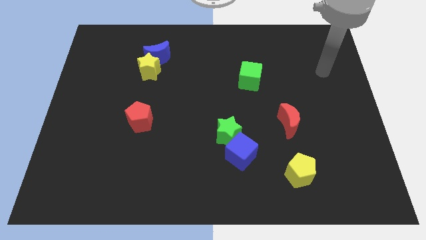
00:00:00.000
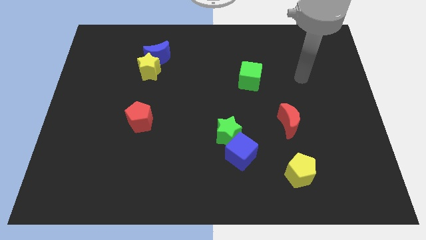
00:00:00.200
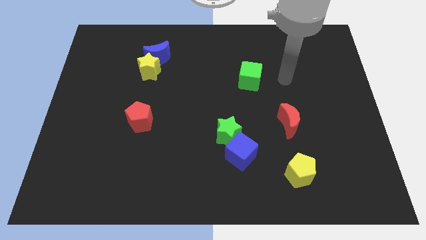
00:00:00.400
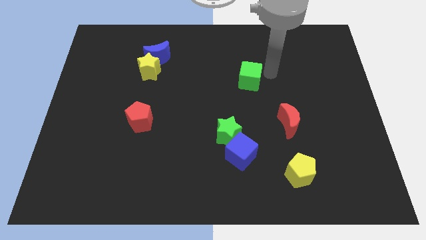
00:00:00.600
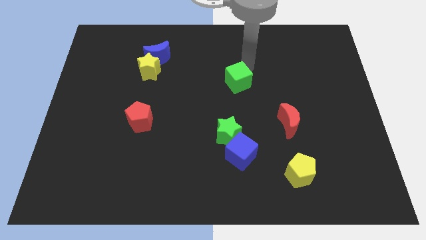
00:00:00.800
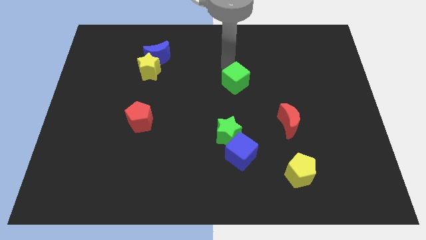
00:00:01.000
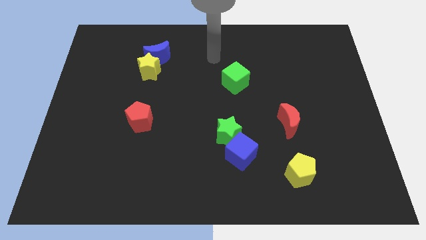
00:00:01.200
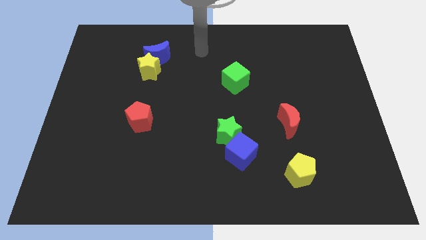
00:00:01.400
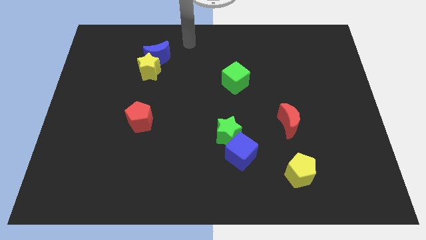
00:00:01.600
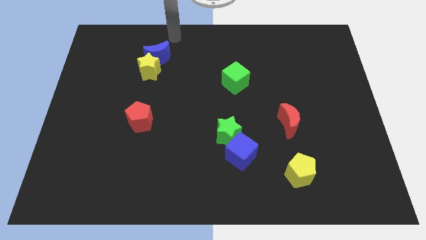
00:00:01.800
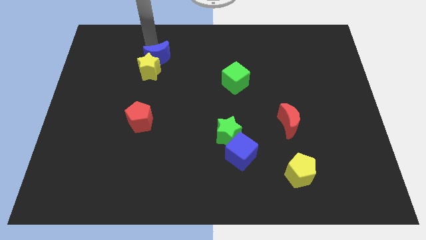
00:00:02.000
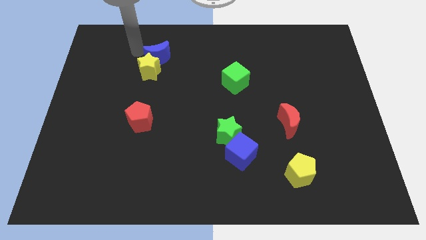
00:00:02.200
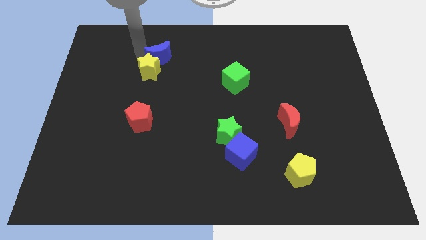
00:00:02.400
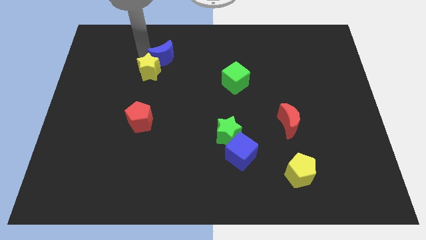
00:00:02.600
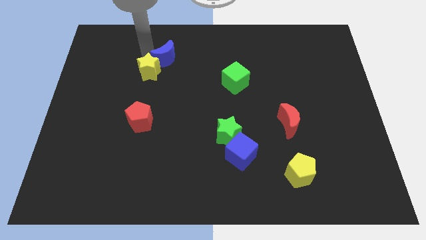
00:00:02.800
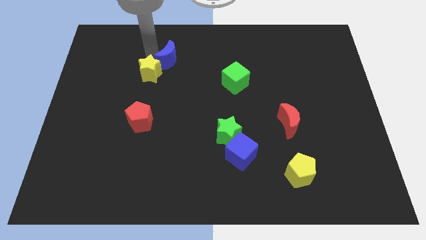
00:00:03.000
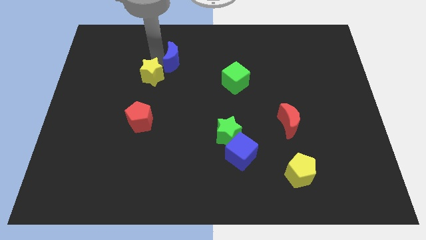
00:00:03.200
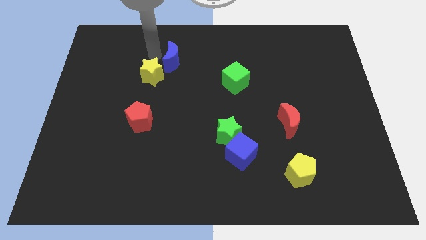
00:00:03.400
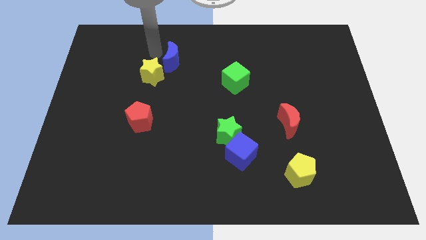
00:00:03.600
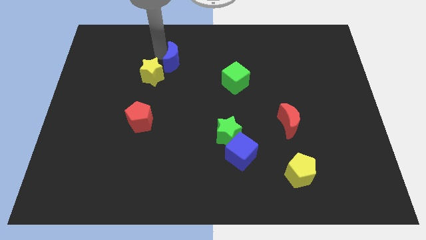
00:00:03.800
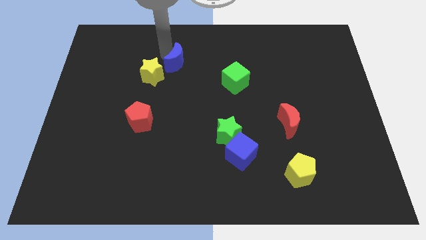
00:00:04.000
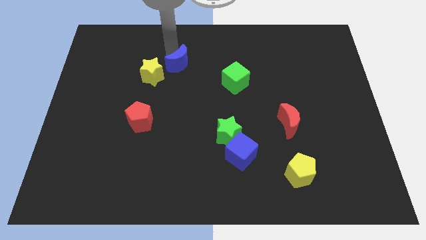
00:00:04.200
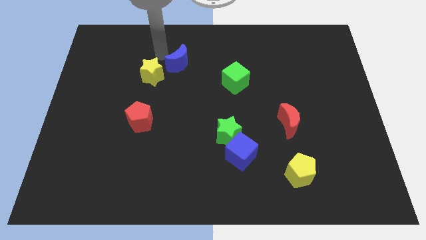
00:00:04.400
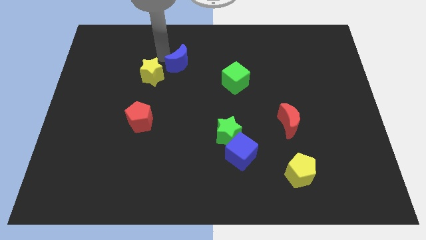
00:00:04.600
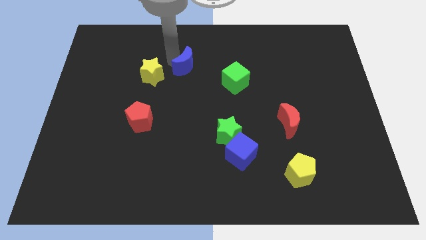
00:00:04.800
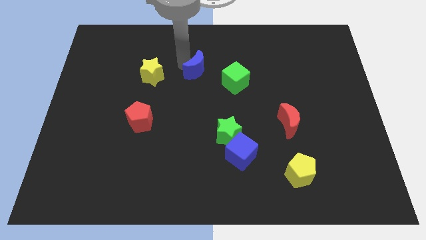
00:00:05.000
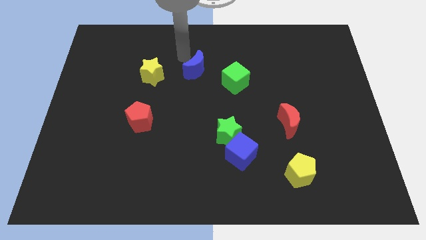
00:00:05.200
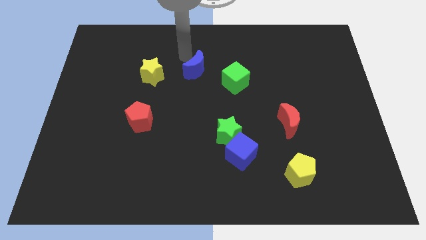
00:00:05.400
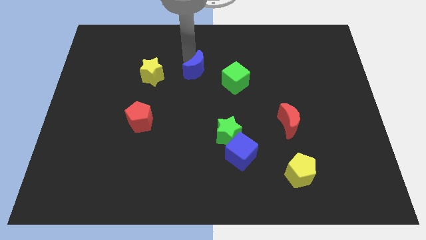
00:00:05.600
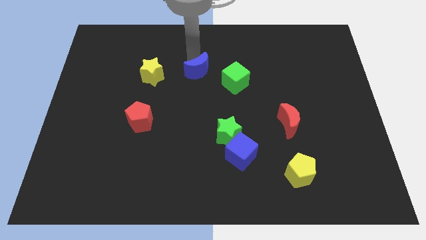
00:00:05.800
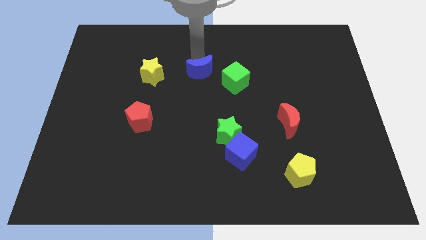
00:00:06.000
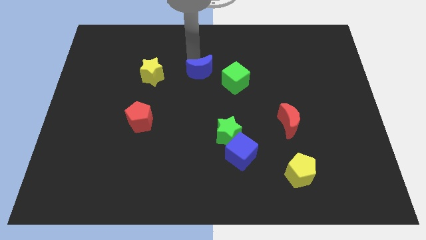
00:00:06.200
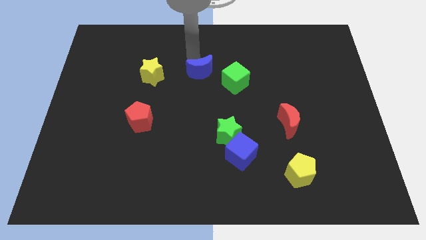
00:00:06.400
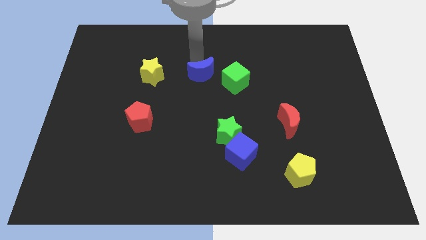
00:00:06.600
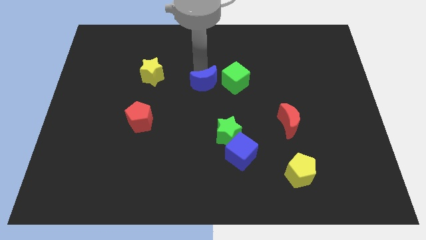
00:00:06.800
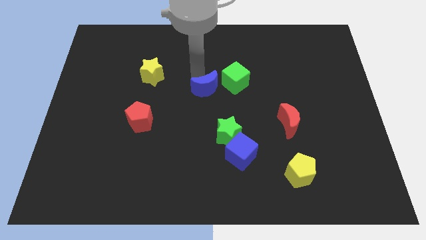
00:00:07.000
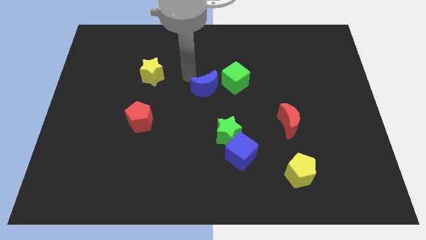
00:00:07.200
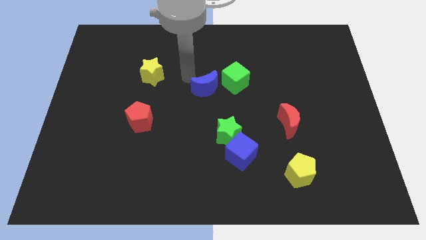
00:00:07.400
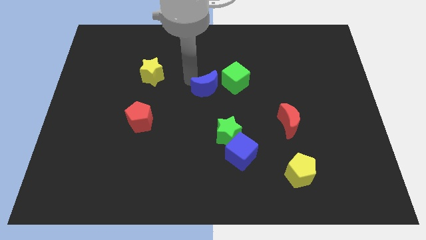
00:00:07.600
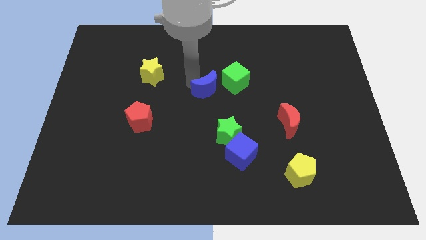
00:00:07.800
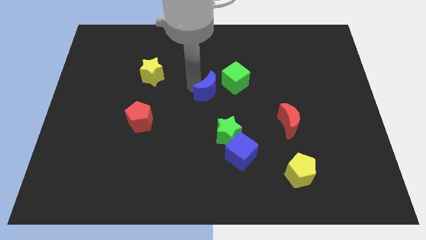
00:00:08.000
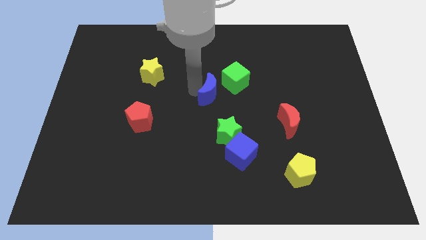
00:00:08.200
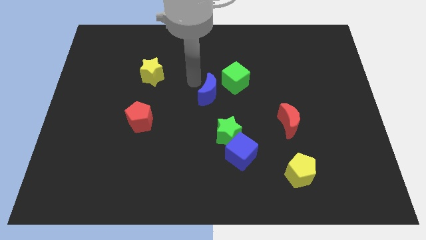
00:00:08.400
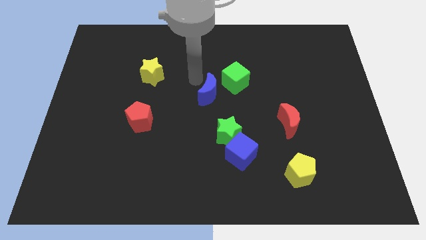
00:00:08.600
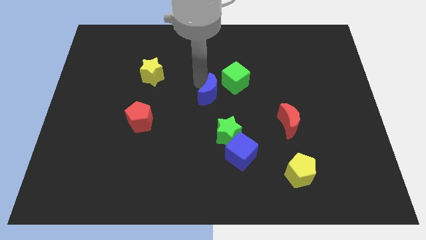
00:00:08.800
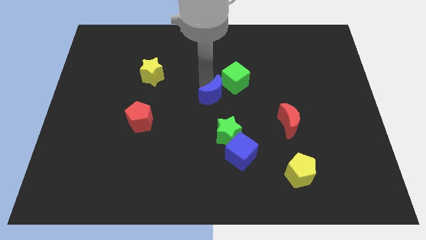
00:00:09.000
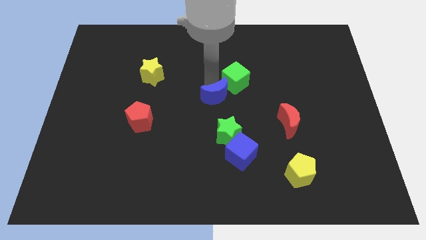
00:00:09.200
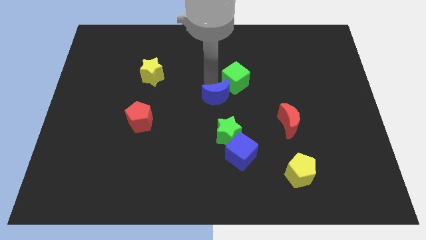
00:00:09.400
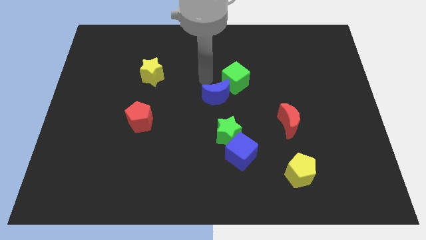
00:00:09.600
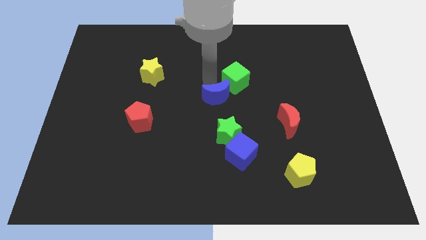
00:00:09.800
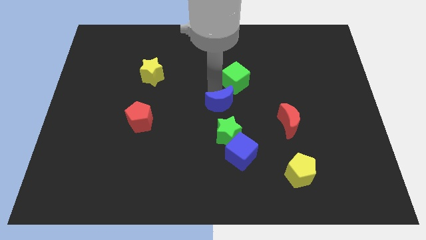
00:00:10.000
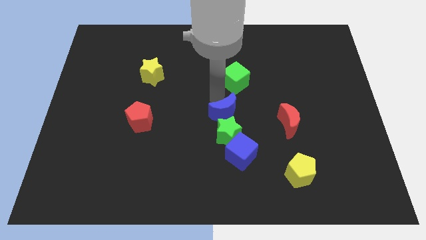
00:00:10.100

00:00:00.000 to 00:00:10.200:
put the blue moon to the left of the red moon

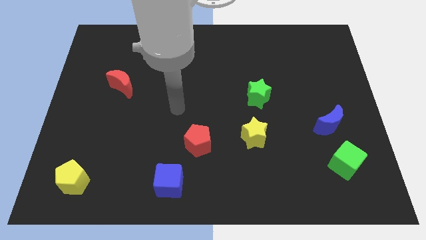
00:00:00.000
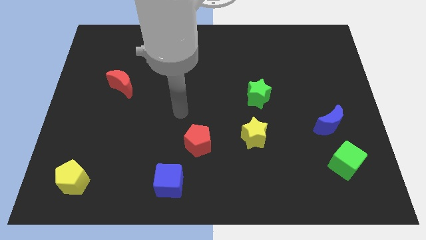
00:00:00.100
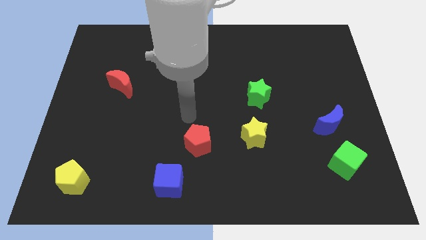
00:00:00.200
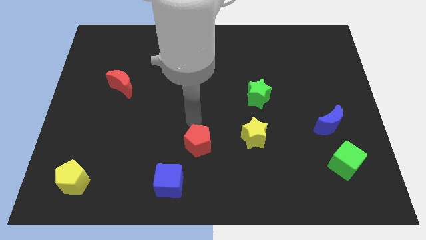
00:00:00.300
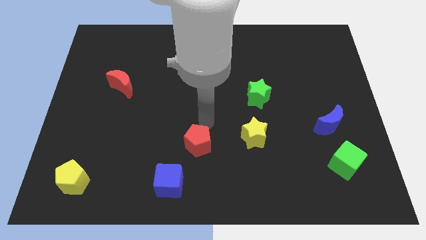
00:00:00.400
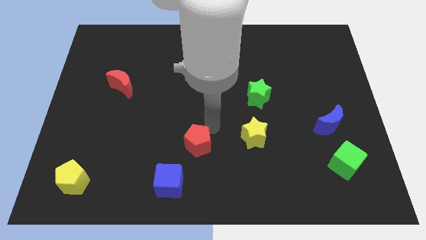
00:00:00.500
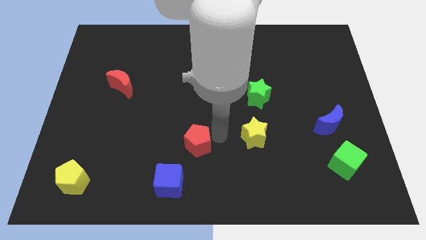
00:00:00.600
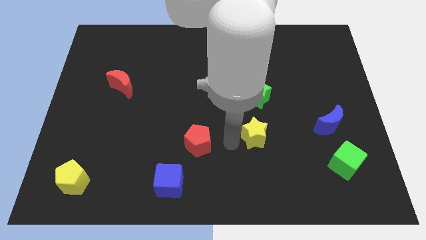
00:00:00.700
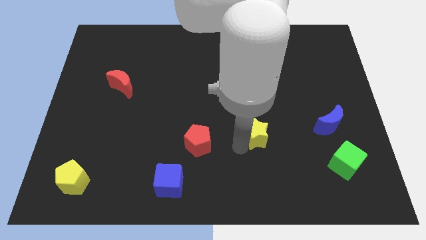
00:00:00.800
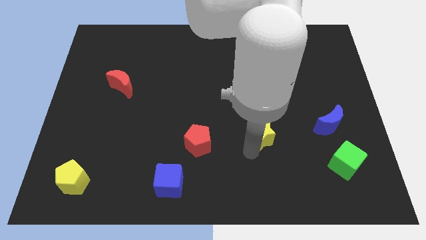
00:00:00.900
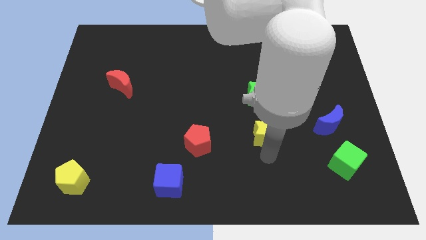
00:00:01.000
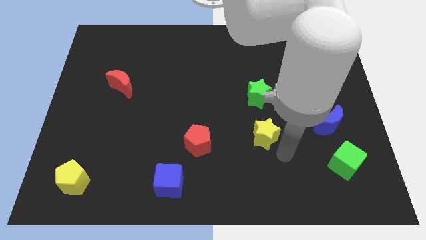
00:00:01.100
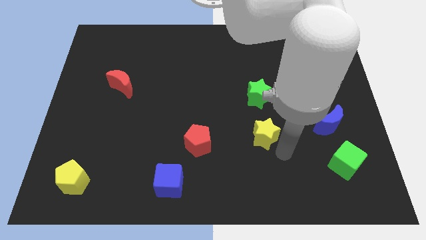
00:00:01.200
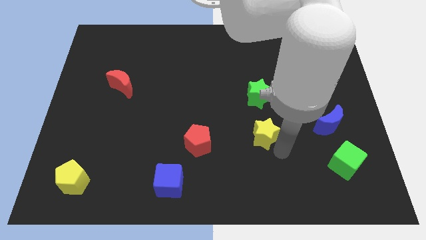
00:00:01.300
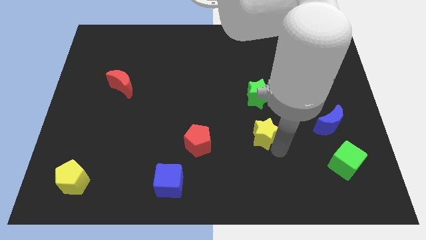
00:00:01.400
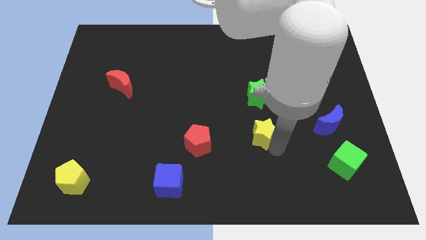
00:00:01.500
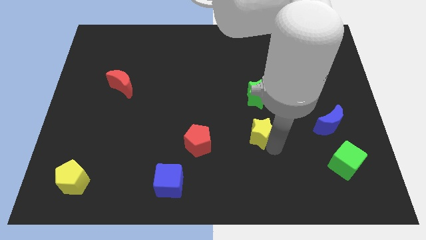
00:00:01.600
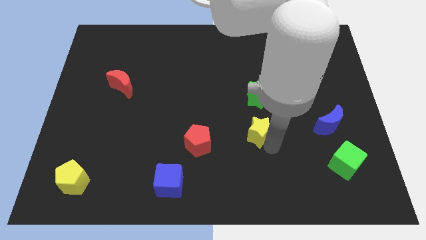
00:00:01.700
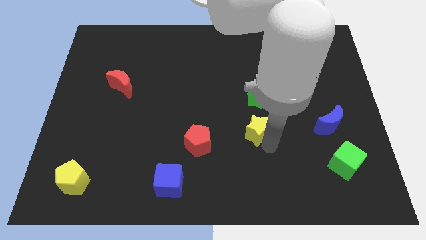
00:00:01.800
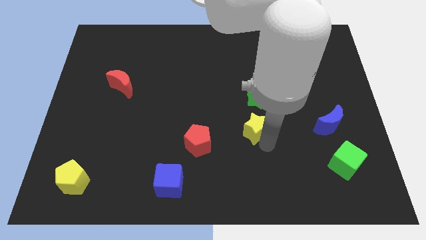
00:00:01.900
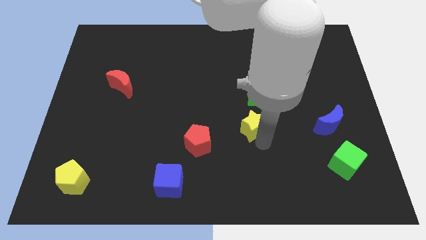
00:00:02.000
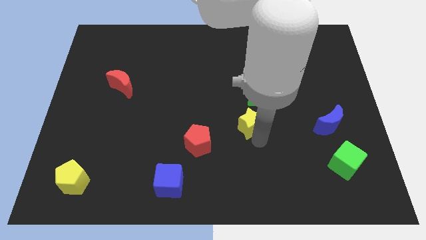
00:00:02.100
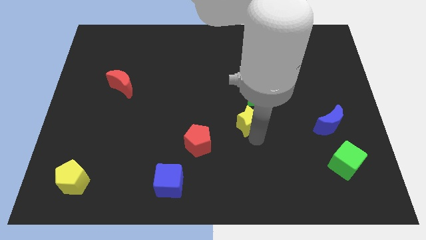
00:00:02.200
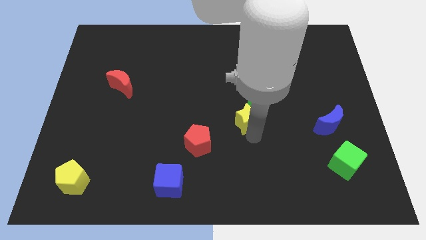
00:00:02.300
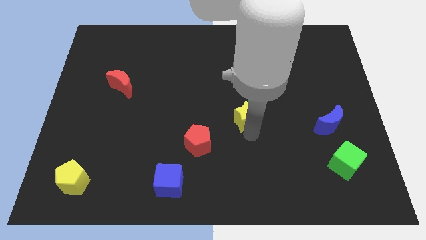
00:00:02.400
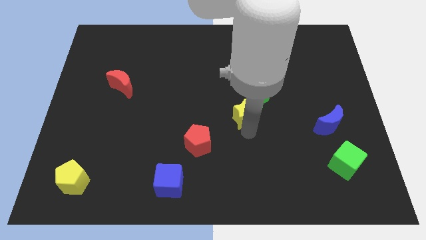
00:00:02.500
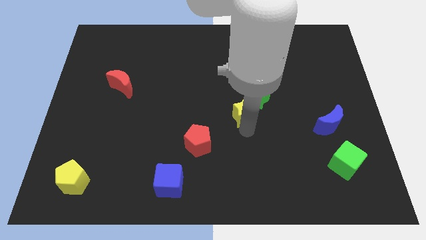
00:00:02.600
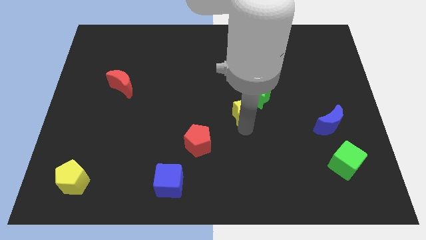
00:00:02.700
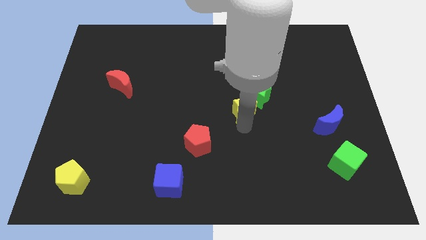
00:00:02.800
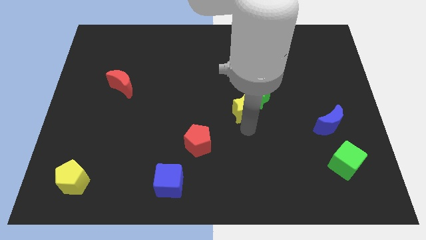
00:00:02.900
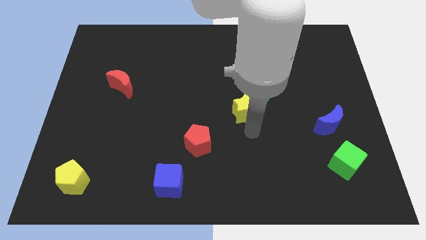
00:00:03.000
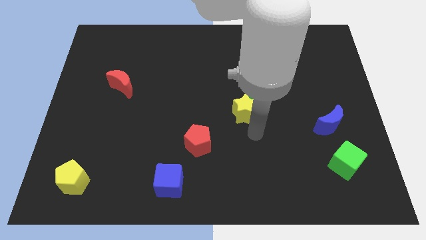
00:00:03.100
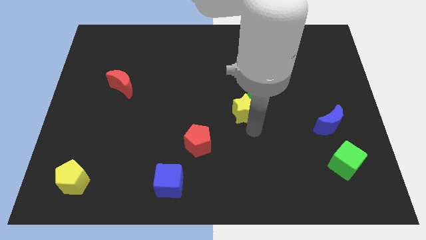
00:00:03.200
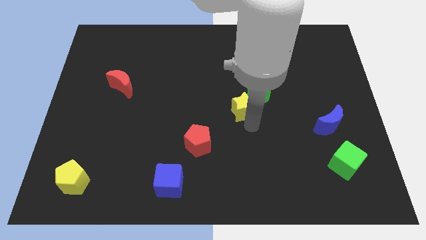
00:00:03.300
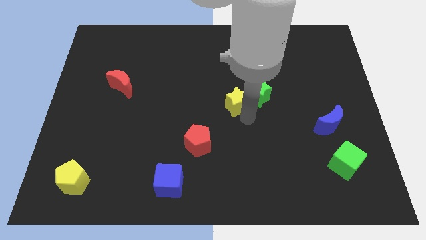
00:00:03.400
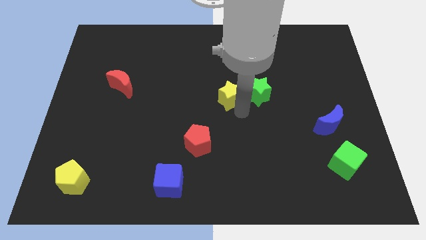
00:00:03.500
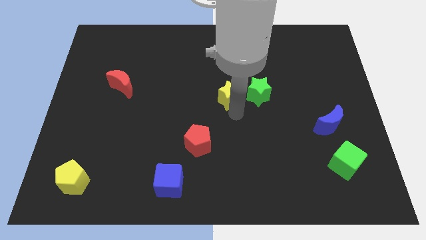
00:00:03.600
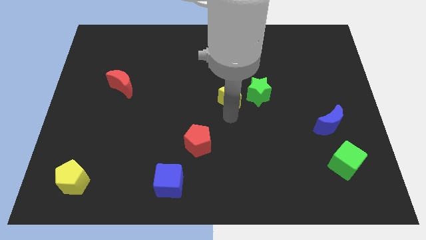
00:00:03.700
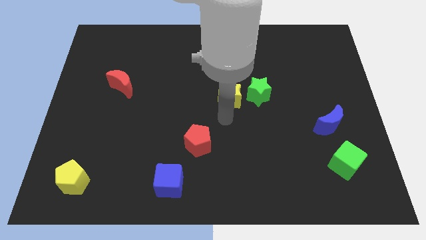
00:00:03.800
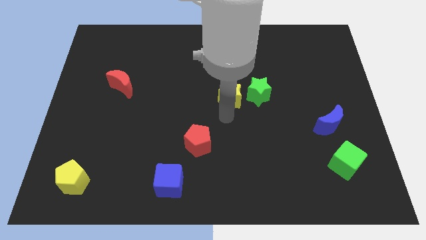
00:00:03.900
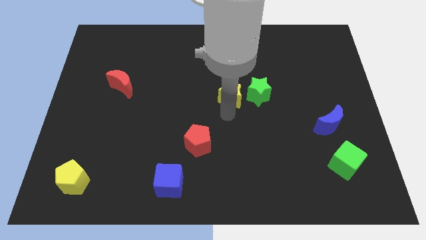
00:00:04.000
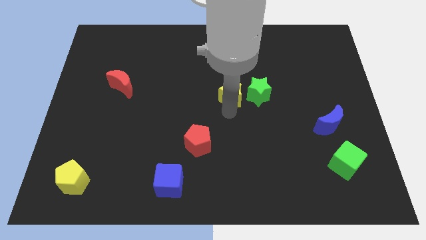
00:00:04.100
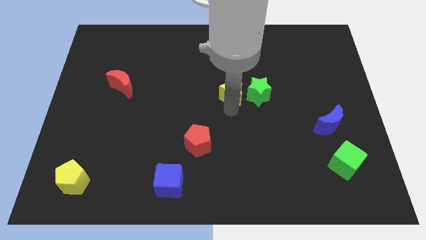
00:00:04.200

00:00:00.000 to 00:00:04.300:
put the yellow star to the top left of the green star
